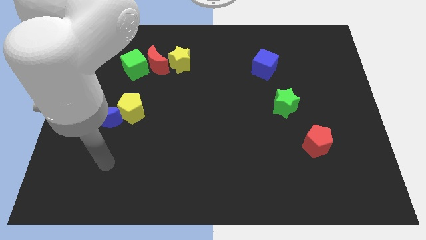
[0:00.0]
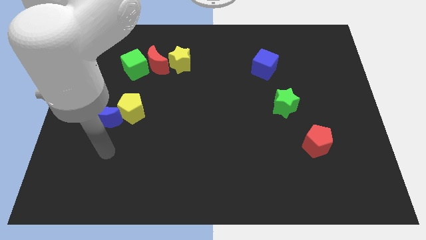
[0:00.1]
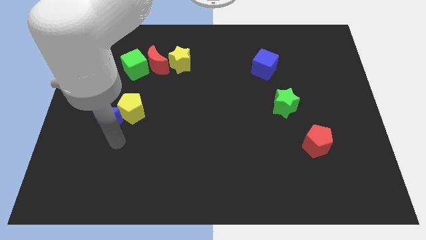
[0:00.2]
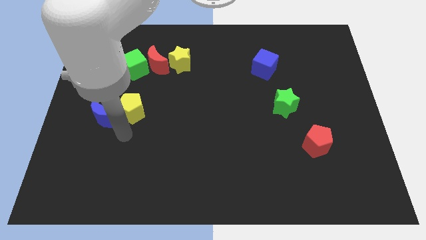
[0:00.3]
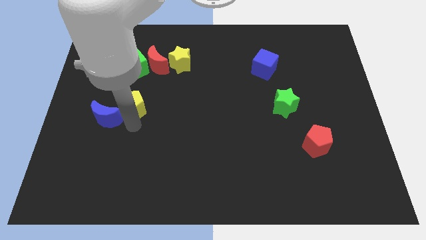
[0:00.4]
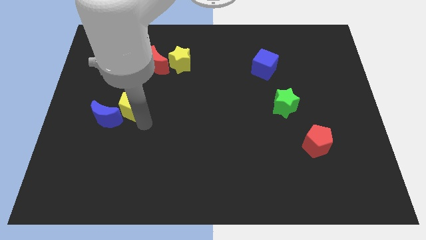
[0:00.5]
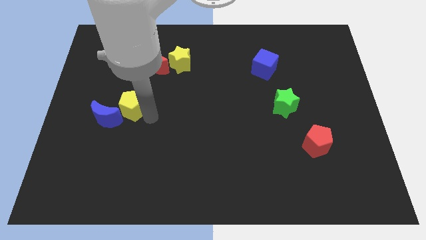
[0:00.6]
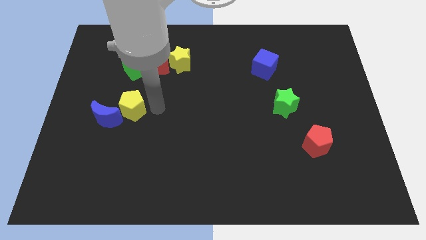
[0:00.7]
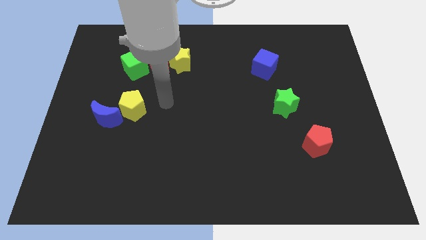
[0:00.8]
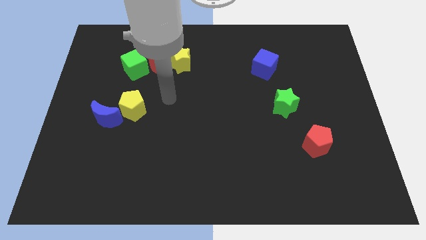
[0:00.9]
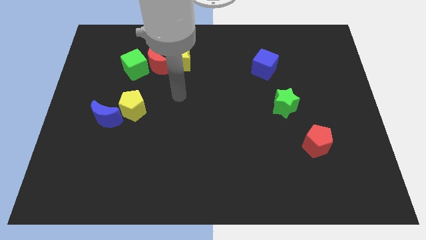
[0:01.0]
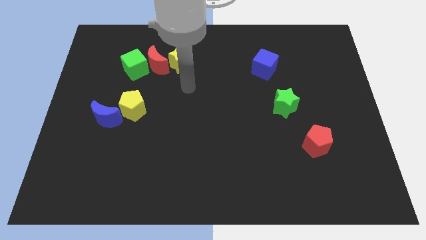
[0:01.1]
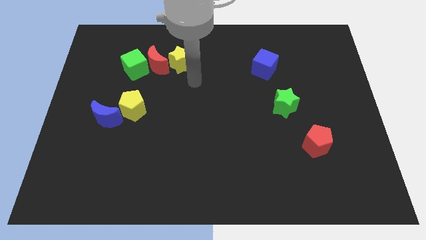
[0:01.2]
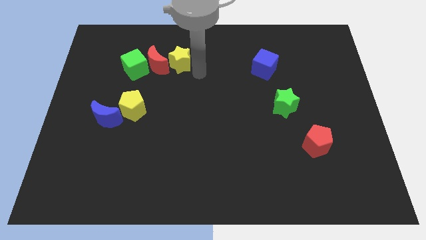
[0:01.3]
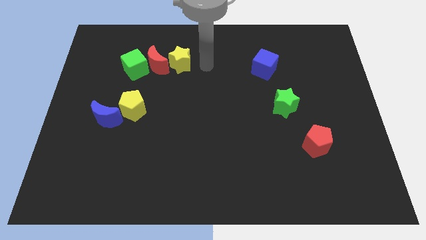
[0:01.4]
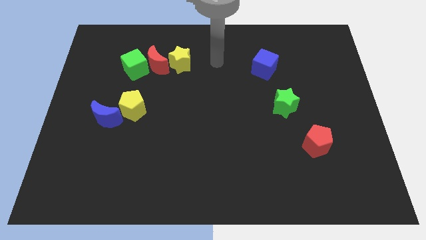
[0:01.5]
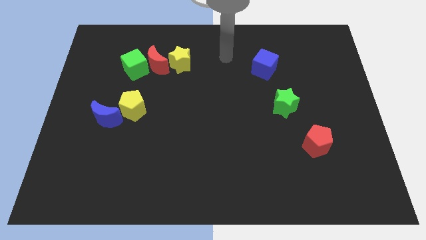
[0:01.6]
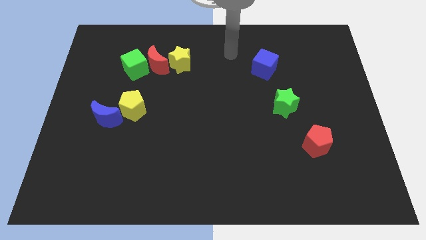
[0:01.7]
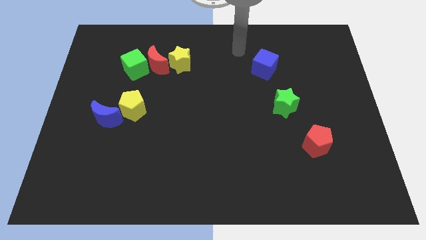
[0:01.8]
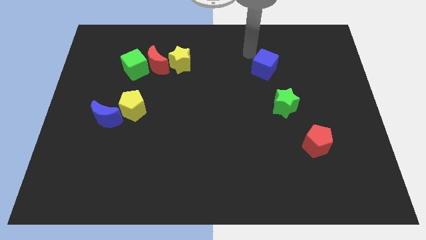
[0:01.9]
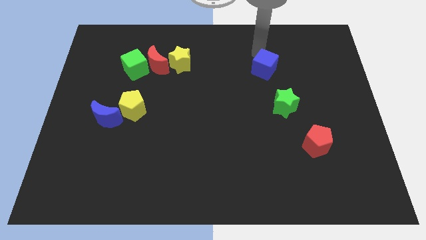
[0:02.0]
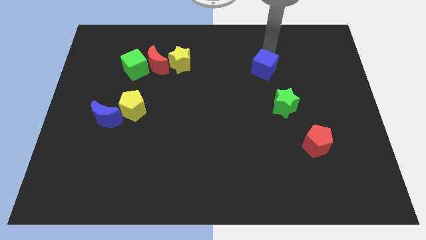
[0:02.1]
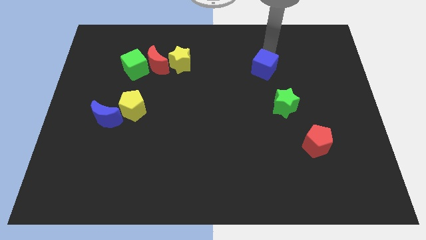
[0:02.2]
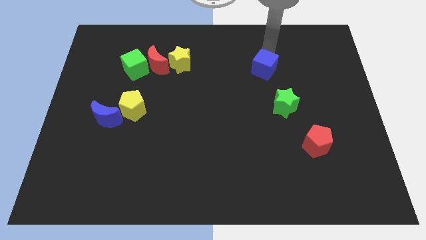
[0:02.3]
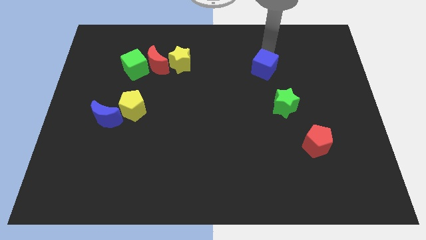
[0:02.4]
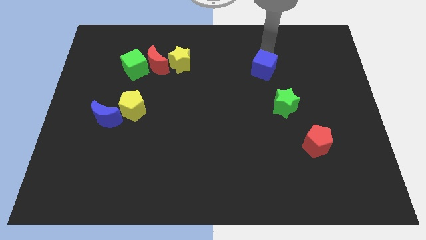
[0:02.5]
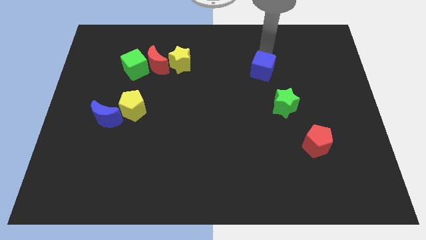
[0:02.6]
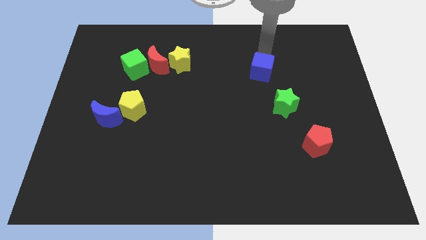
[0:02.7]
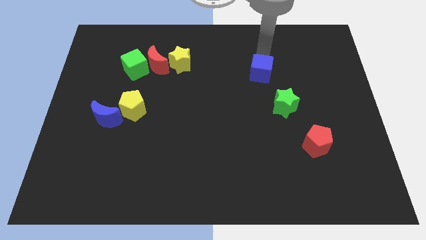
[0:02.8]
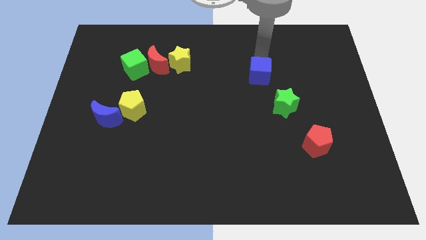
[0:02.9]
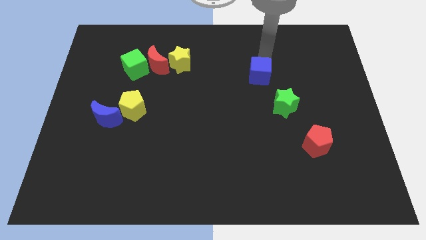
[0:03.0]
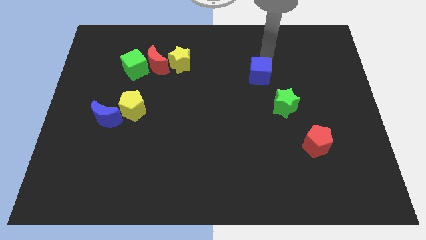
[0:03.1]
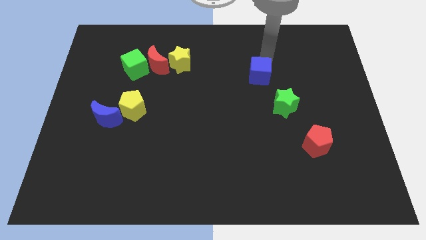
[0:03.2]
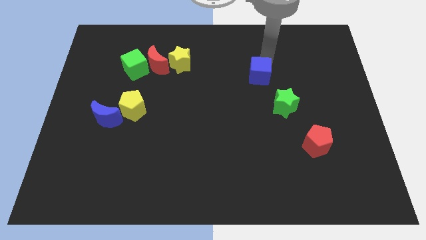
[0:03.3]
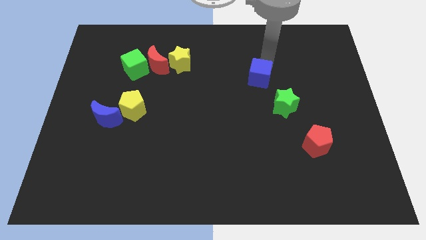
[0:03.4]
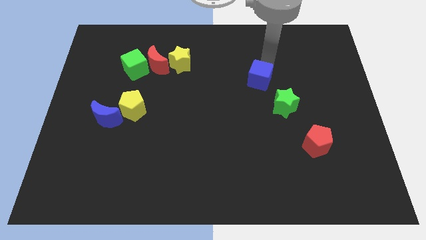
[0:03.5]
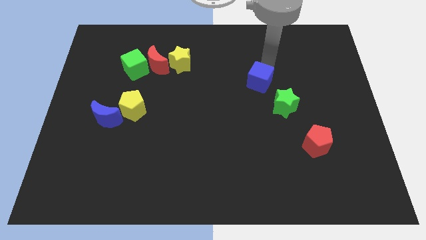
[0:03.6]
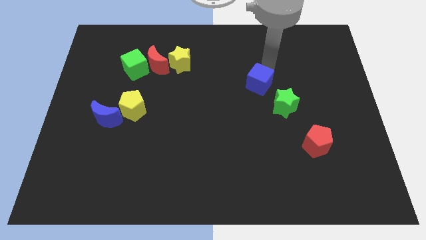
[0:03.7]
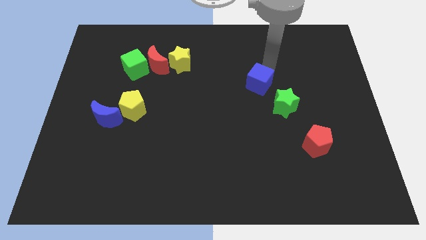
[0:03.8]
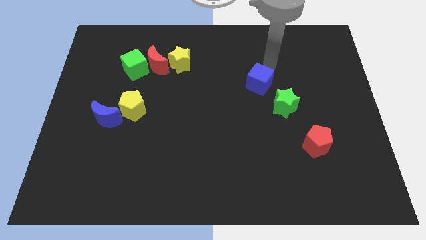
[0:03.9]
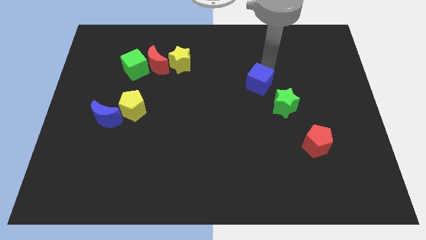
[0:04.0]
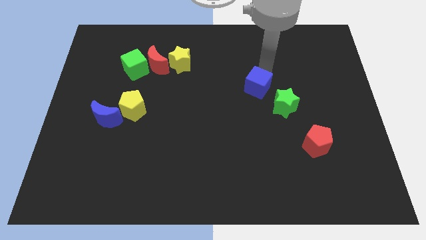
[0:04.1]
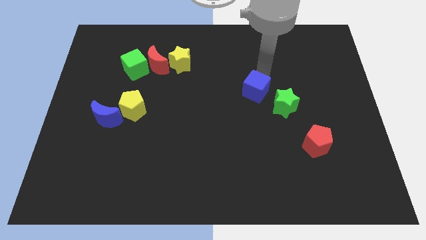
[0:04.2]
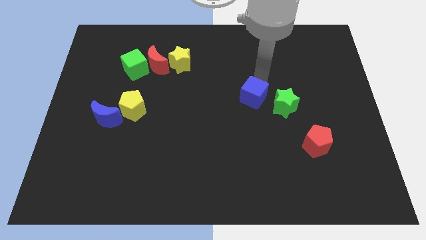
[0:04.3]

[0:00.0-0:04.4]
put the blue cube just left of the green star

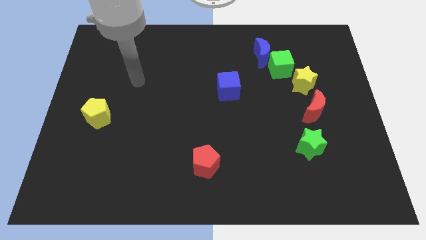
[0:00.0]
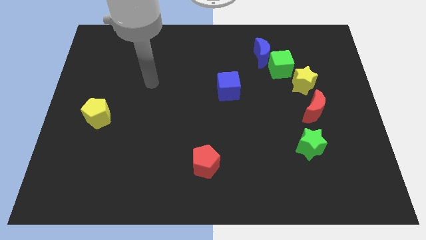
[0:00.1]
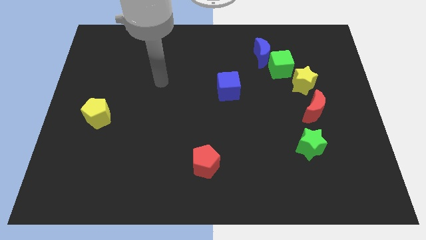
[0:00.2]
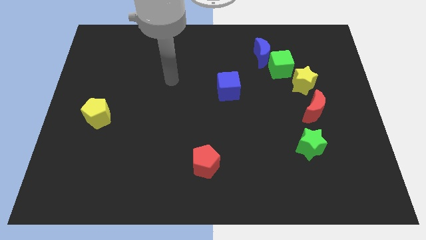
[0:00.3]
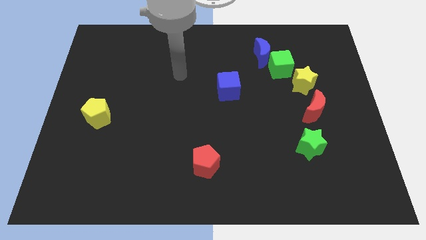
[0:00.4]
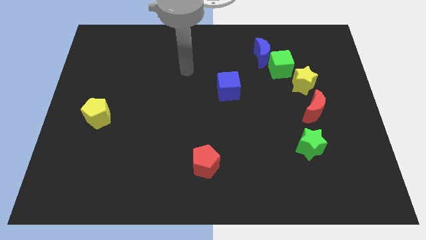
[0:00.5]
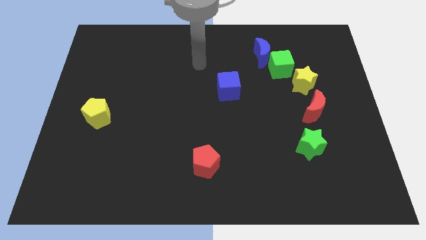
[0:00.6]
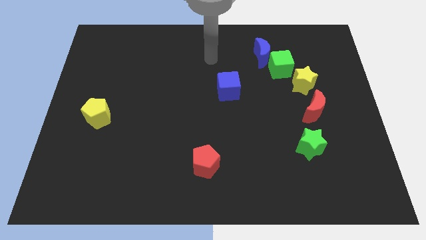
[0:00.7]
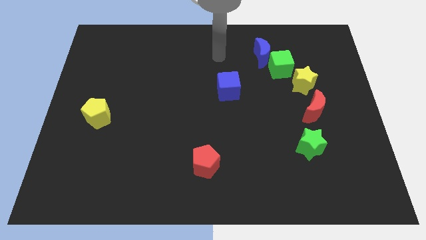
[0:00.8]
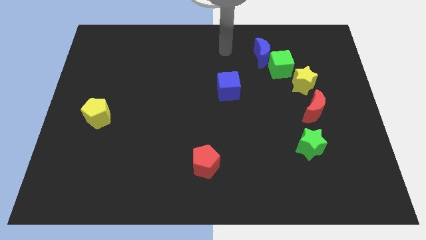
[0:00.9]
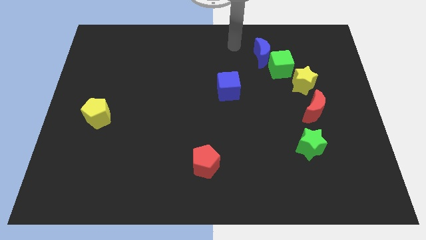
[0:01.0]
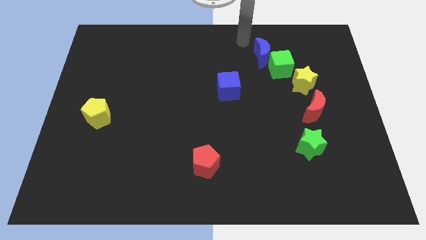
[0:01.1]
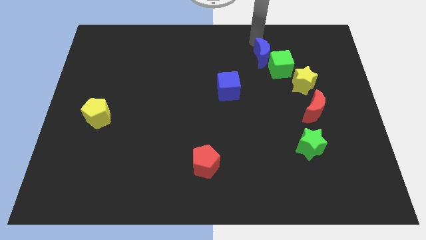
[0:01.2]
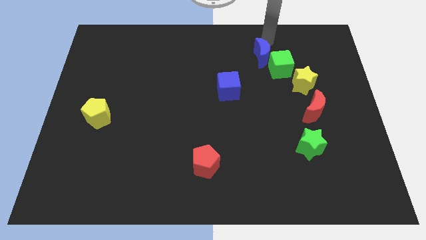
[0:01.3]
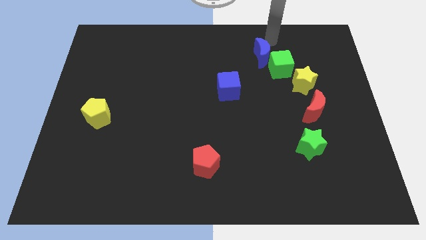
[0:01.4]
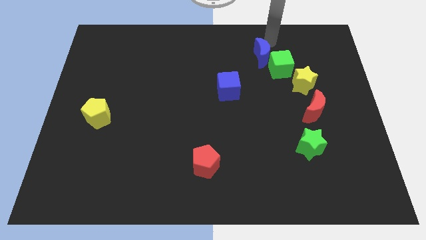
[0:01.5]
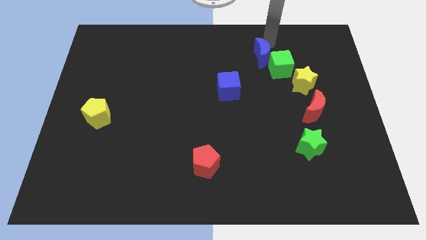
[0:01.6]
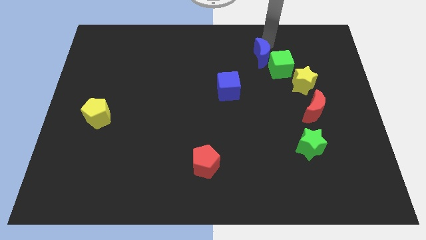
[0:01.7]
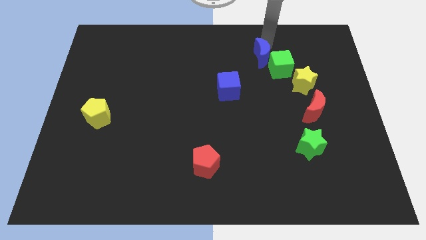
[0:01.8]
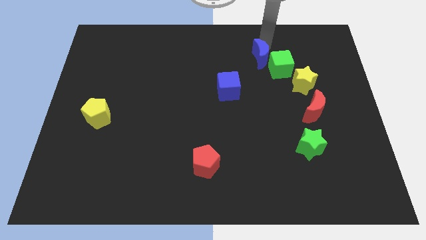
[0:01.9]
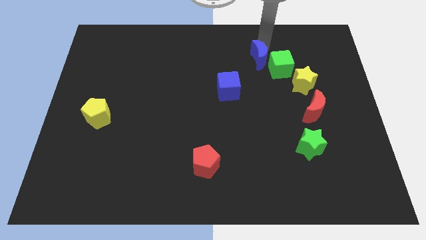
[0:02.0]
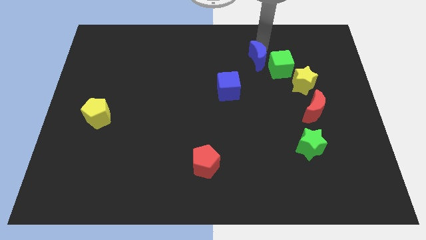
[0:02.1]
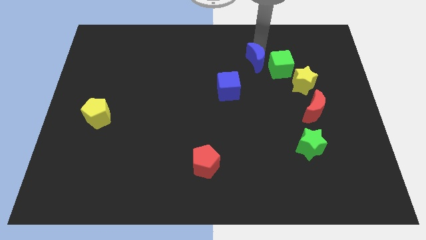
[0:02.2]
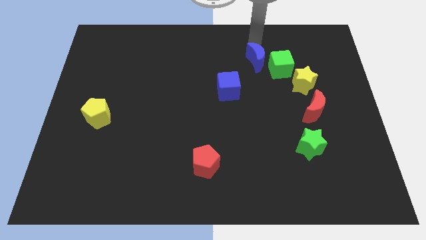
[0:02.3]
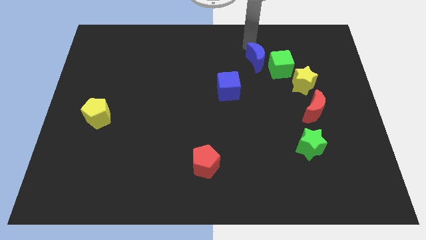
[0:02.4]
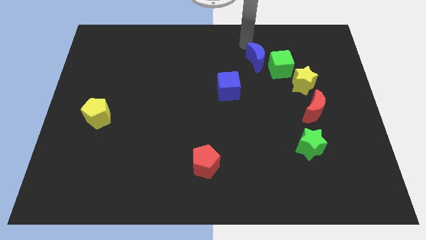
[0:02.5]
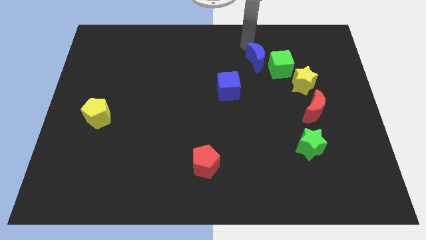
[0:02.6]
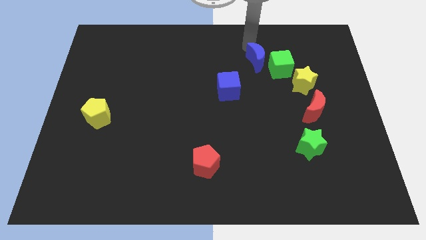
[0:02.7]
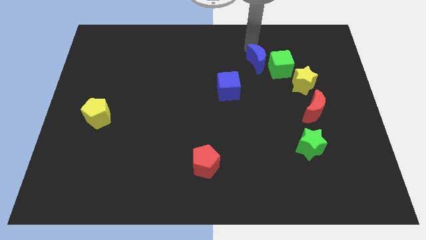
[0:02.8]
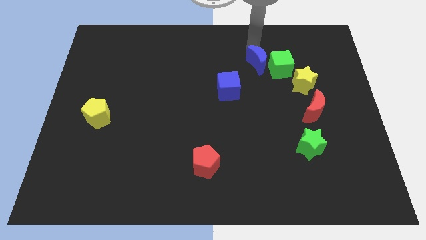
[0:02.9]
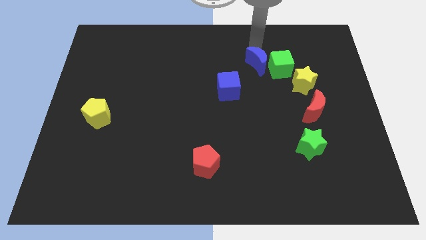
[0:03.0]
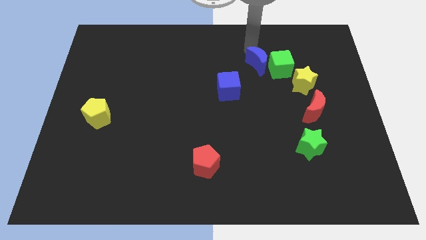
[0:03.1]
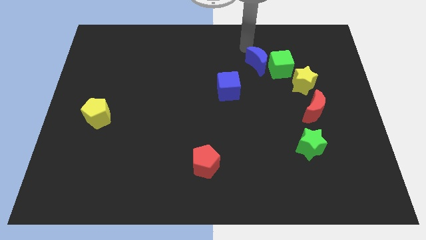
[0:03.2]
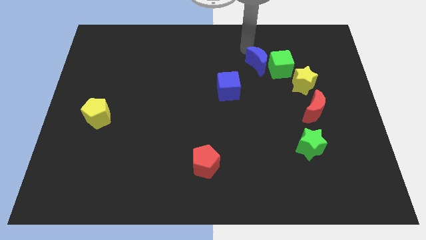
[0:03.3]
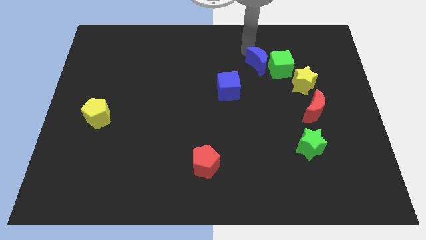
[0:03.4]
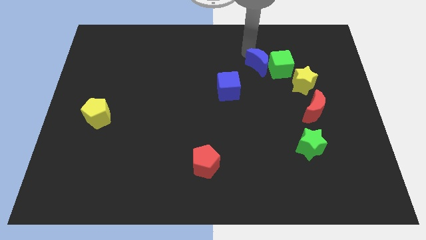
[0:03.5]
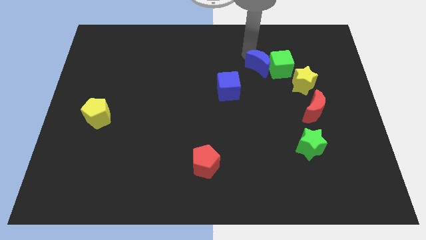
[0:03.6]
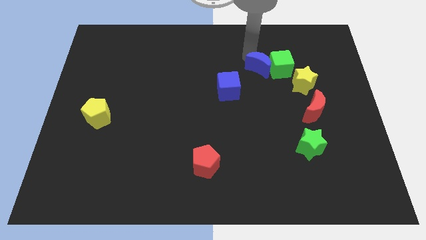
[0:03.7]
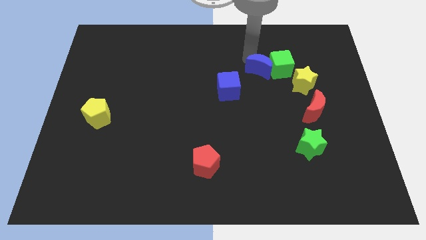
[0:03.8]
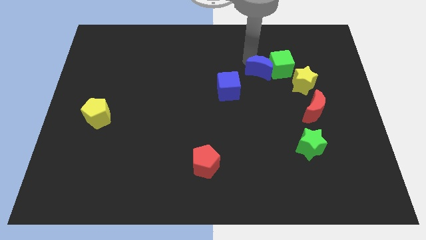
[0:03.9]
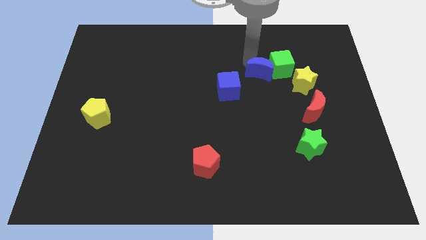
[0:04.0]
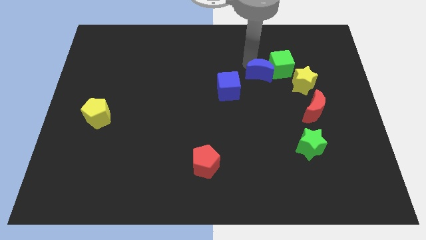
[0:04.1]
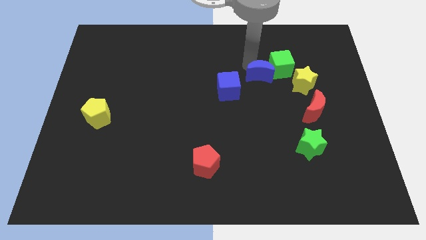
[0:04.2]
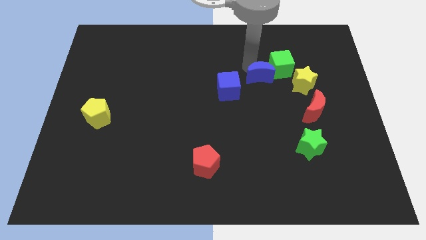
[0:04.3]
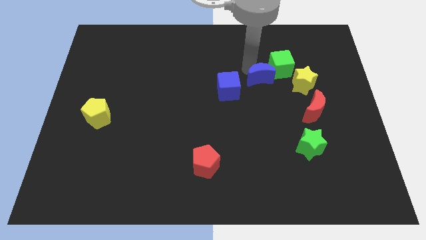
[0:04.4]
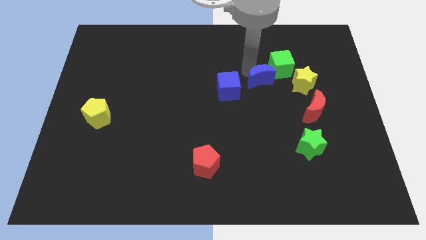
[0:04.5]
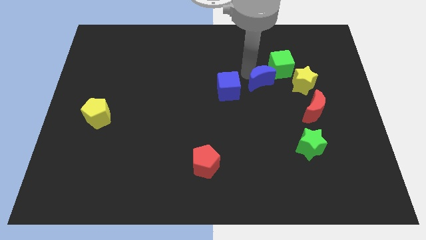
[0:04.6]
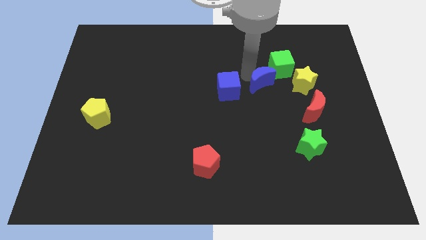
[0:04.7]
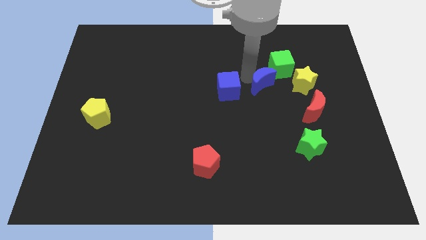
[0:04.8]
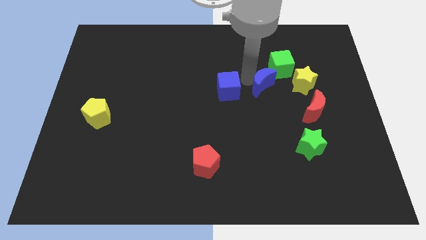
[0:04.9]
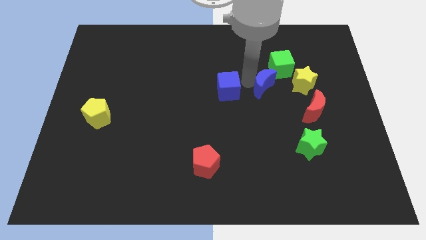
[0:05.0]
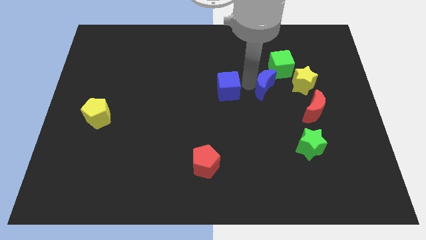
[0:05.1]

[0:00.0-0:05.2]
push the blue moon to the bottom side of the green cube
